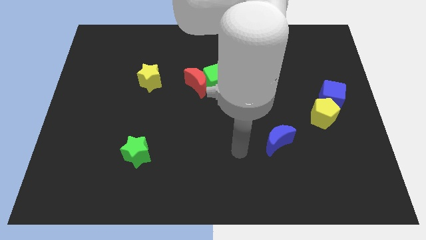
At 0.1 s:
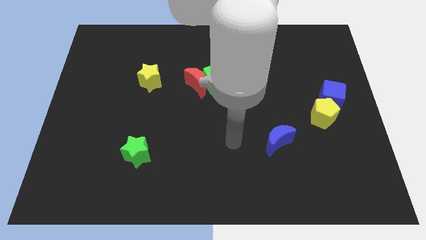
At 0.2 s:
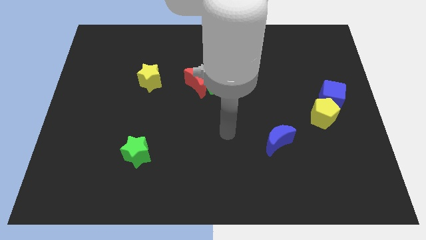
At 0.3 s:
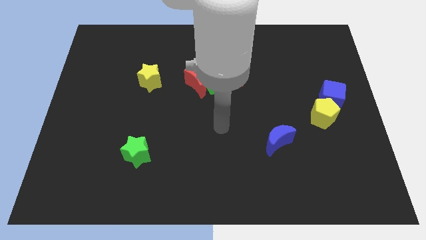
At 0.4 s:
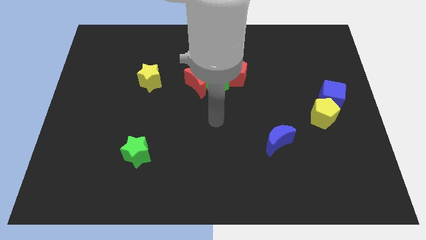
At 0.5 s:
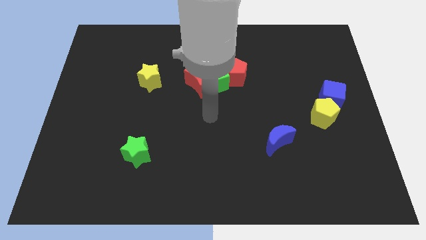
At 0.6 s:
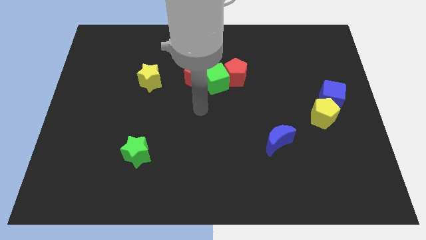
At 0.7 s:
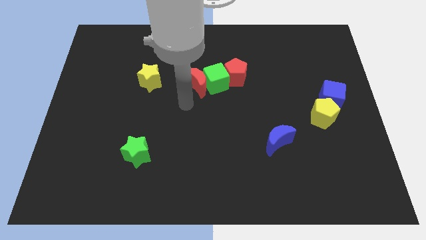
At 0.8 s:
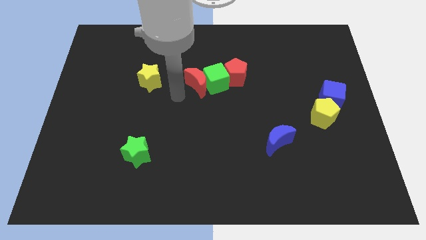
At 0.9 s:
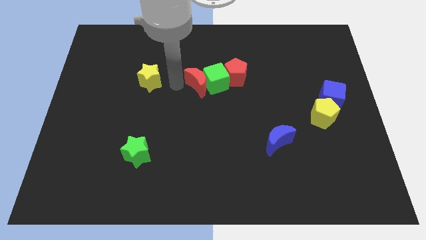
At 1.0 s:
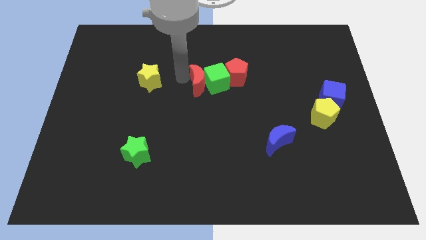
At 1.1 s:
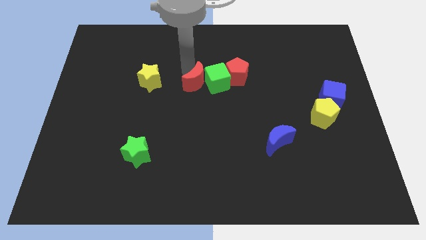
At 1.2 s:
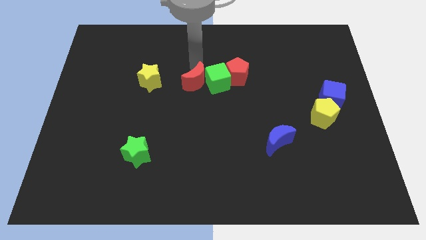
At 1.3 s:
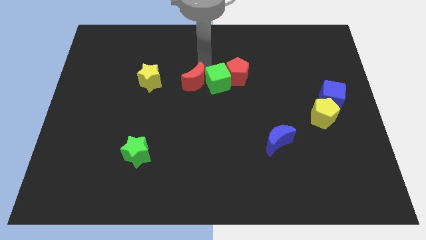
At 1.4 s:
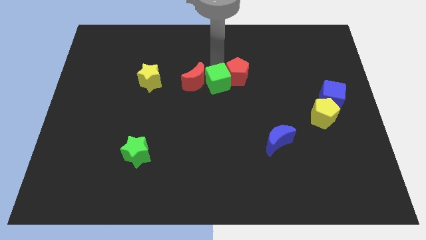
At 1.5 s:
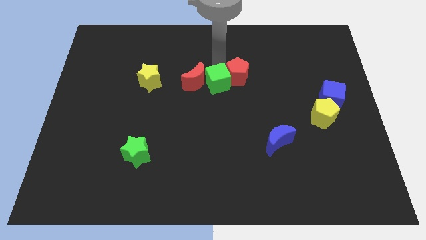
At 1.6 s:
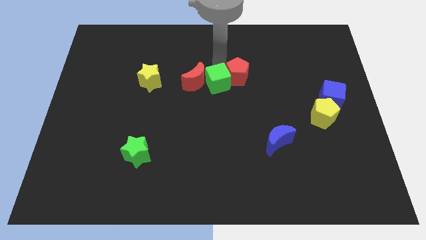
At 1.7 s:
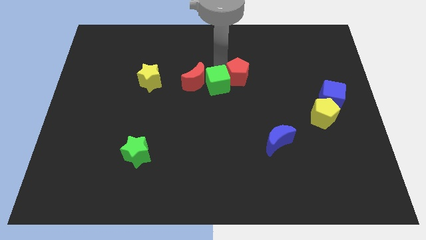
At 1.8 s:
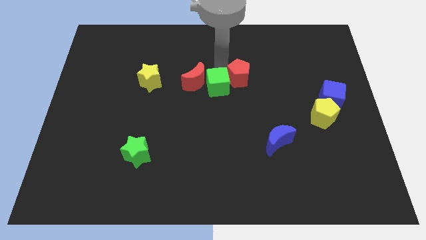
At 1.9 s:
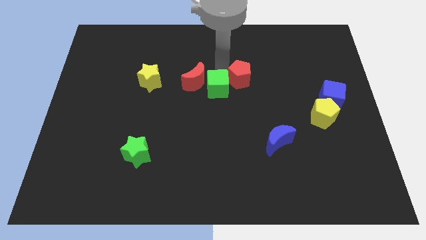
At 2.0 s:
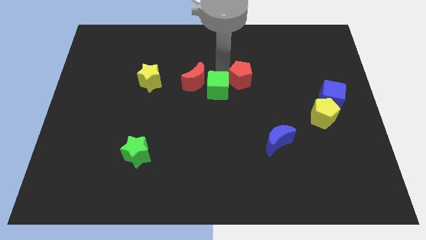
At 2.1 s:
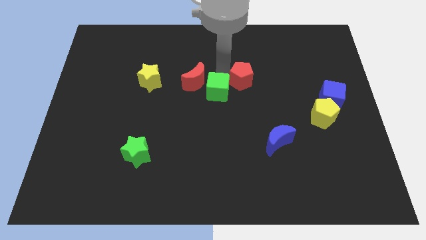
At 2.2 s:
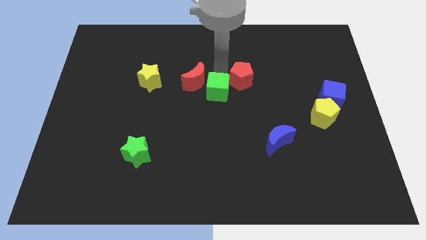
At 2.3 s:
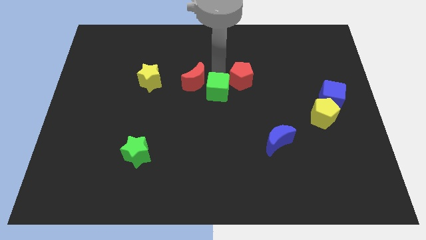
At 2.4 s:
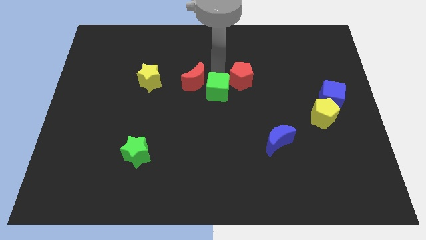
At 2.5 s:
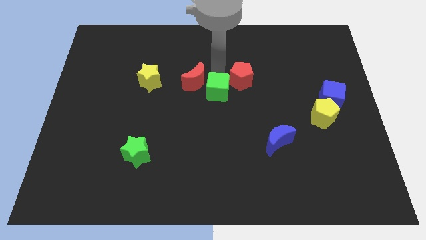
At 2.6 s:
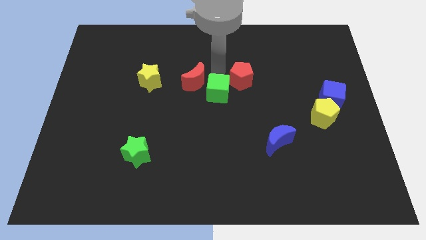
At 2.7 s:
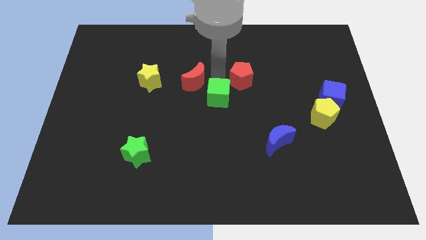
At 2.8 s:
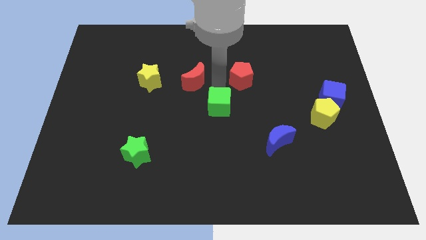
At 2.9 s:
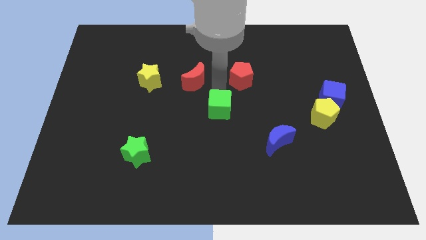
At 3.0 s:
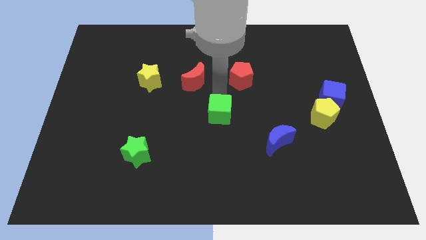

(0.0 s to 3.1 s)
pull the green cube apart from the red moon and red pentagon

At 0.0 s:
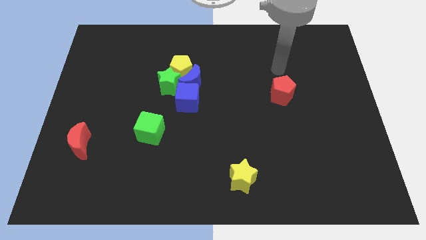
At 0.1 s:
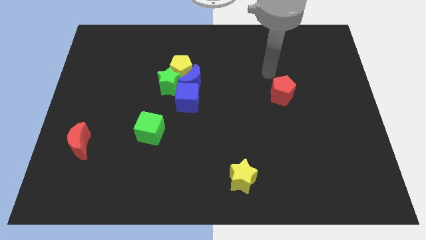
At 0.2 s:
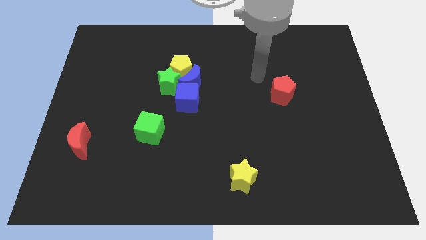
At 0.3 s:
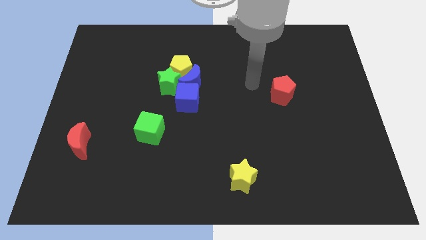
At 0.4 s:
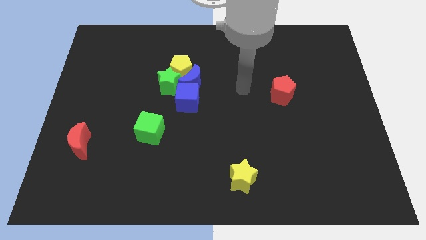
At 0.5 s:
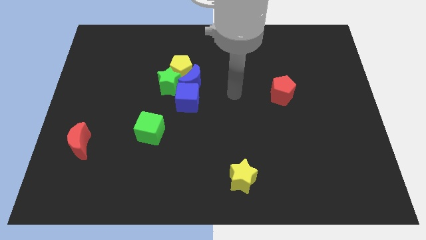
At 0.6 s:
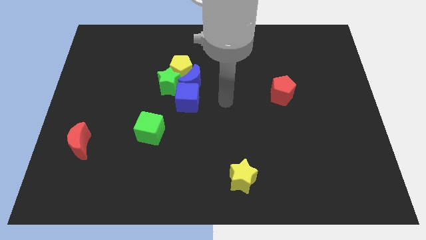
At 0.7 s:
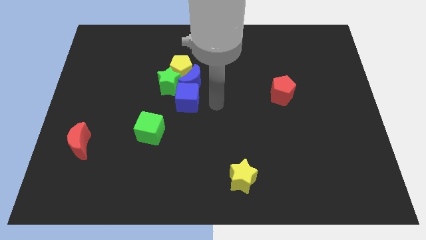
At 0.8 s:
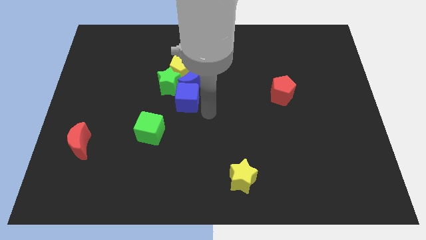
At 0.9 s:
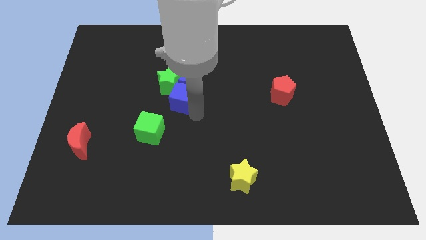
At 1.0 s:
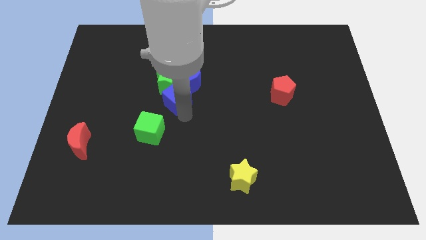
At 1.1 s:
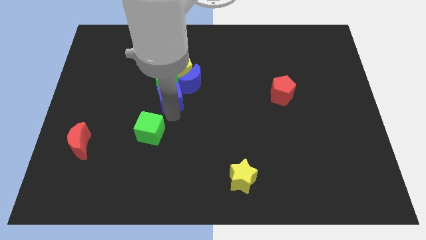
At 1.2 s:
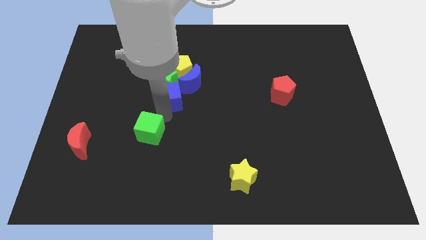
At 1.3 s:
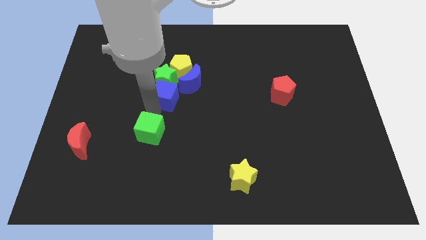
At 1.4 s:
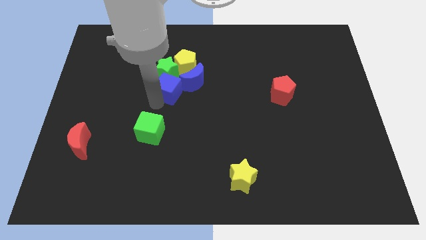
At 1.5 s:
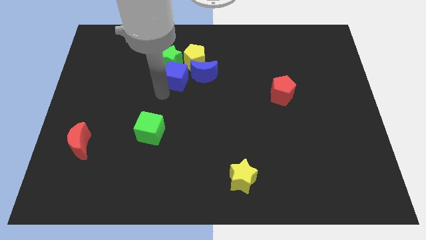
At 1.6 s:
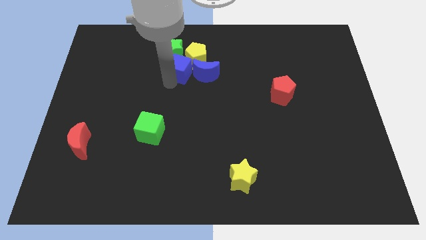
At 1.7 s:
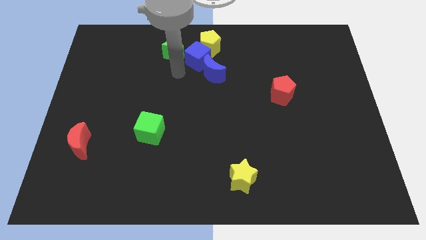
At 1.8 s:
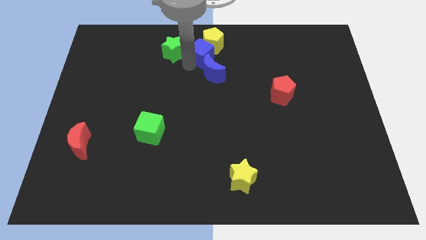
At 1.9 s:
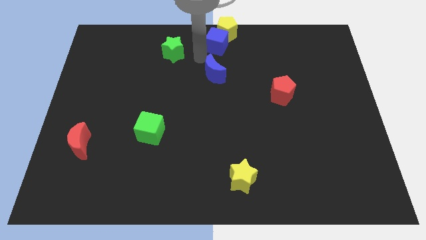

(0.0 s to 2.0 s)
move the blue moon away from the yellow pentagon, blue cube, and green star

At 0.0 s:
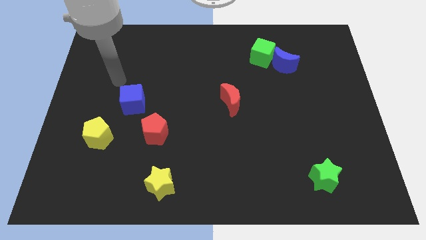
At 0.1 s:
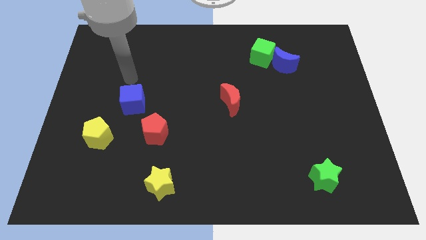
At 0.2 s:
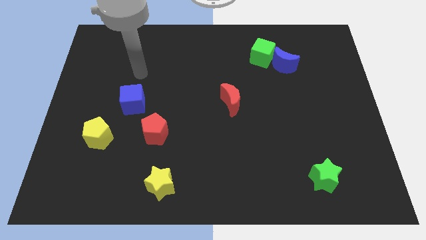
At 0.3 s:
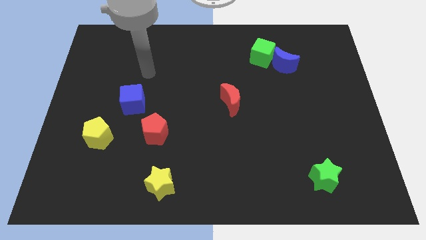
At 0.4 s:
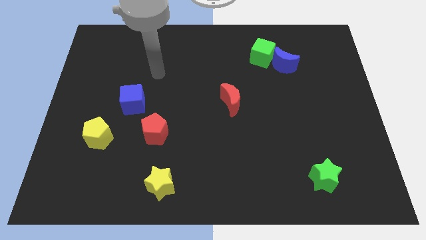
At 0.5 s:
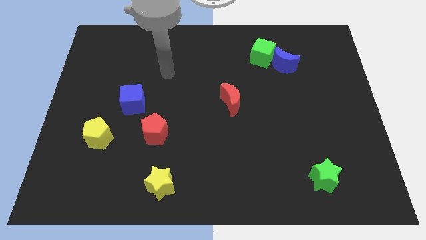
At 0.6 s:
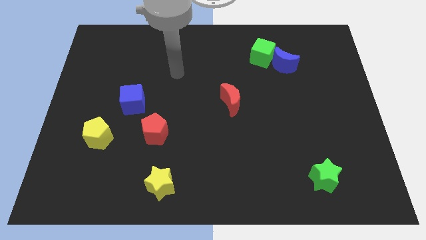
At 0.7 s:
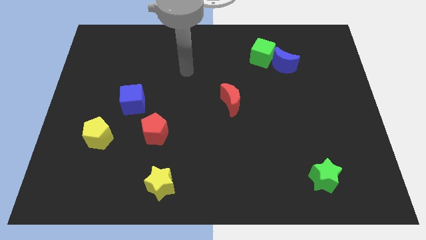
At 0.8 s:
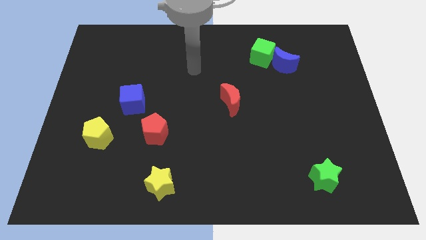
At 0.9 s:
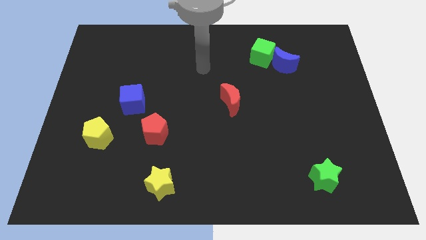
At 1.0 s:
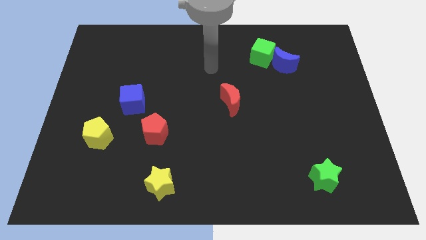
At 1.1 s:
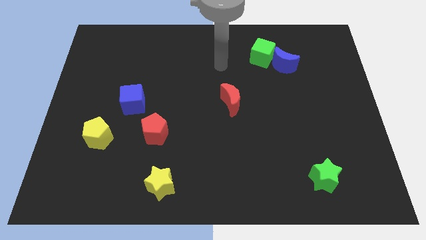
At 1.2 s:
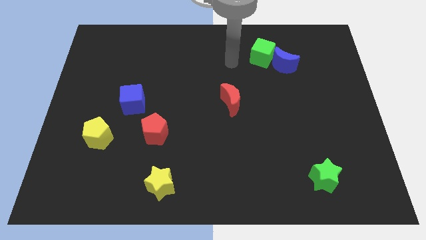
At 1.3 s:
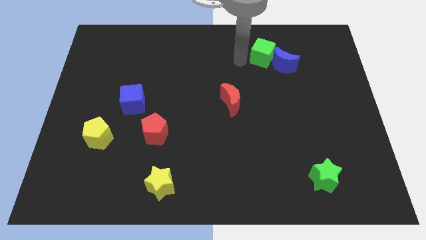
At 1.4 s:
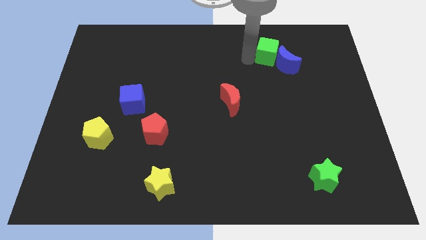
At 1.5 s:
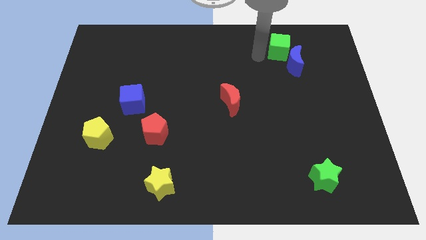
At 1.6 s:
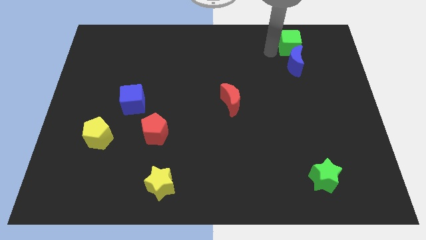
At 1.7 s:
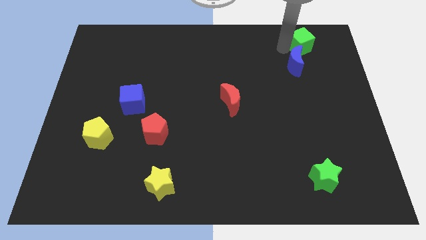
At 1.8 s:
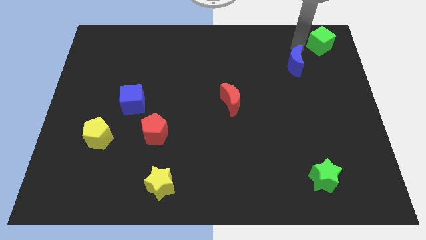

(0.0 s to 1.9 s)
pull the blue moon apart from the green cube

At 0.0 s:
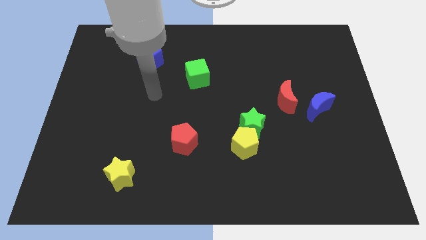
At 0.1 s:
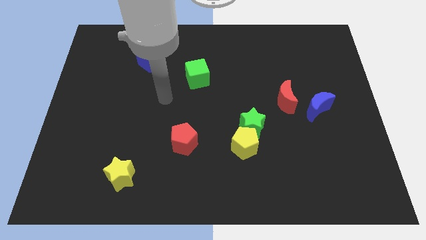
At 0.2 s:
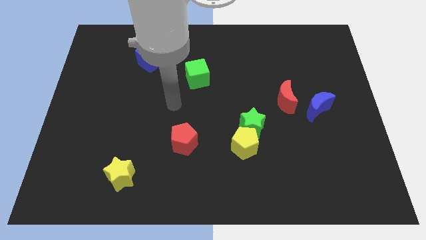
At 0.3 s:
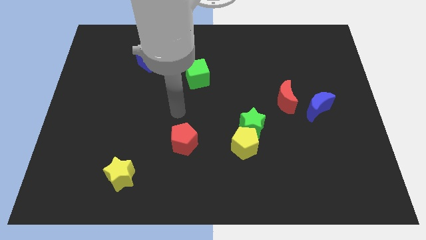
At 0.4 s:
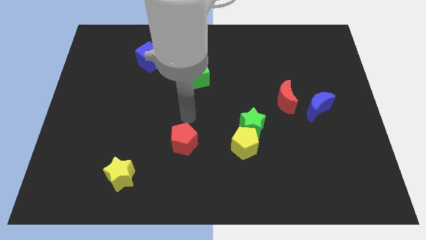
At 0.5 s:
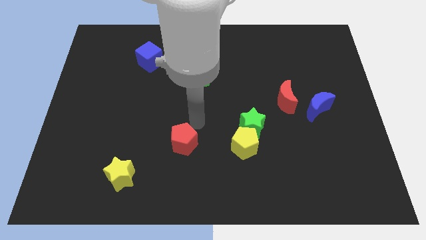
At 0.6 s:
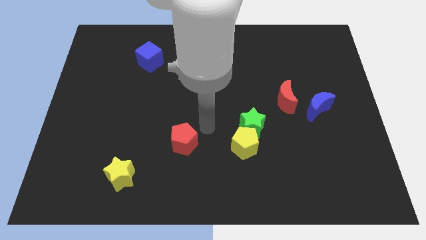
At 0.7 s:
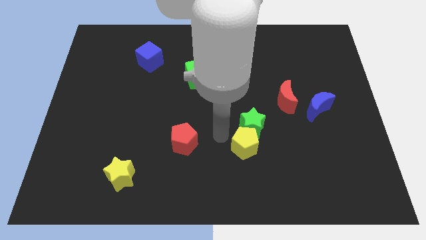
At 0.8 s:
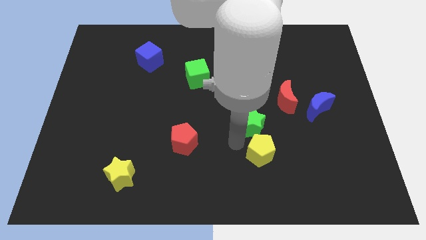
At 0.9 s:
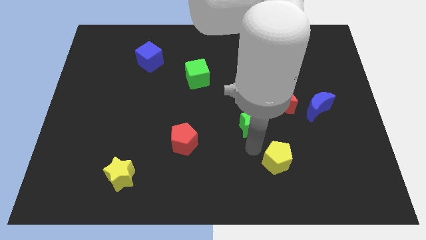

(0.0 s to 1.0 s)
pull the green star apart from the yellow pentagon

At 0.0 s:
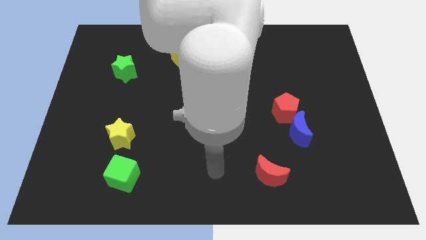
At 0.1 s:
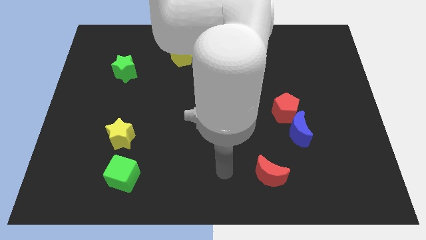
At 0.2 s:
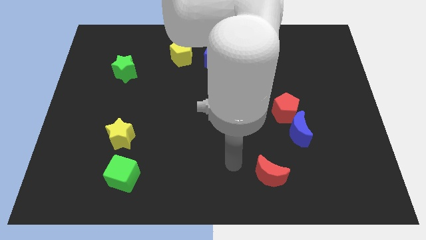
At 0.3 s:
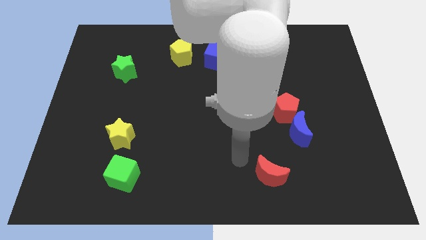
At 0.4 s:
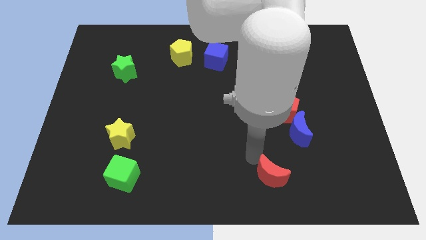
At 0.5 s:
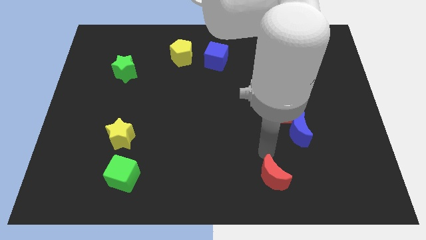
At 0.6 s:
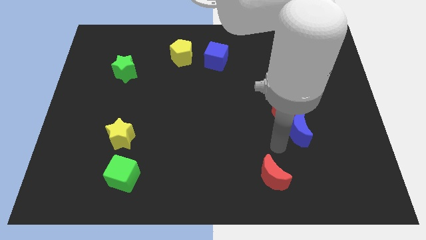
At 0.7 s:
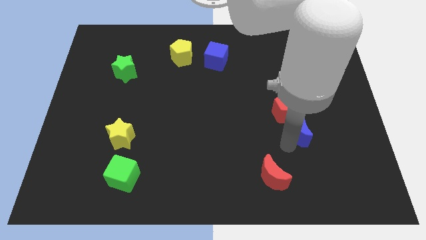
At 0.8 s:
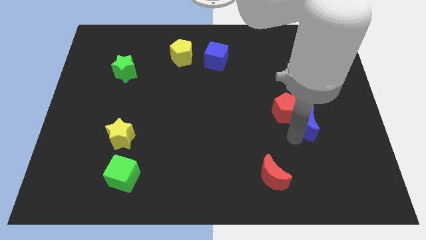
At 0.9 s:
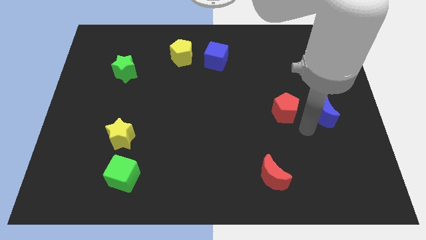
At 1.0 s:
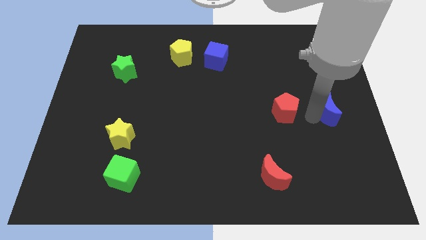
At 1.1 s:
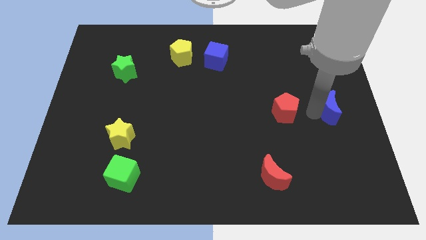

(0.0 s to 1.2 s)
separate the red pentagon from the blue moon
